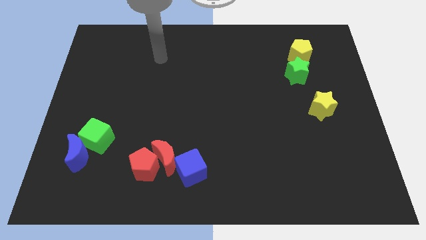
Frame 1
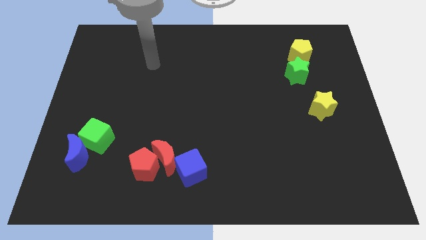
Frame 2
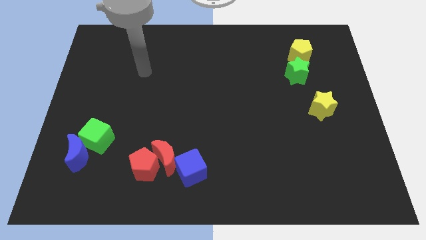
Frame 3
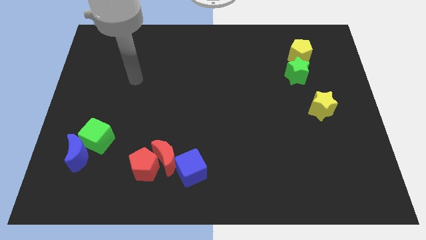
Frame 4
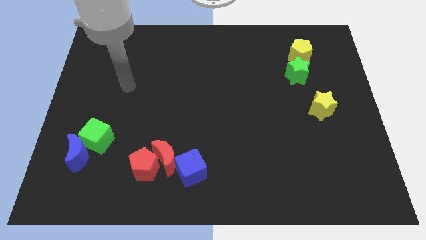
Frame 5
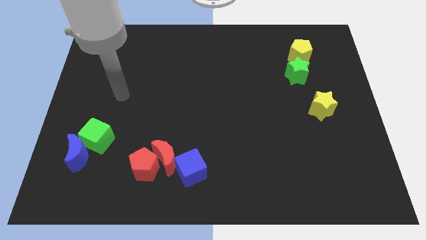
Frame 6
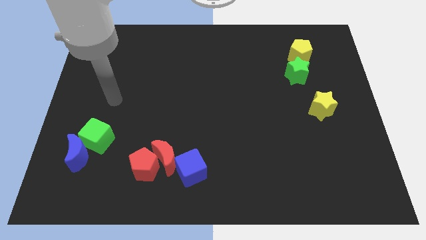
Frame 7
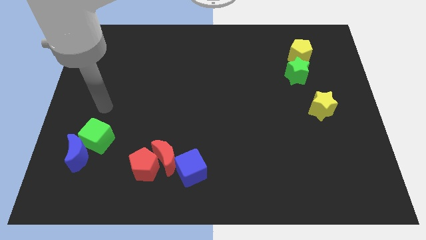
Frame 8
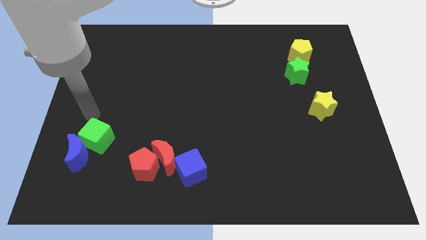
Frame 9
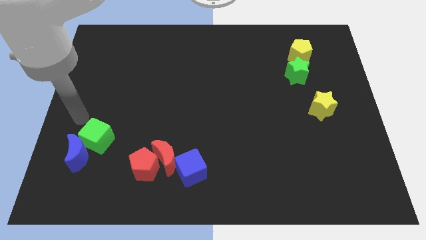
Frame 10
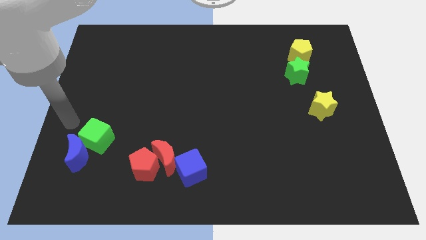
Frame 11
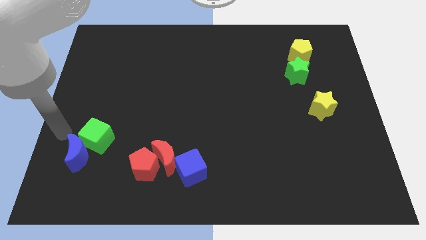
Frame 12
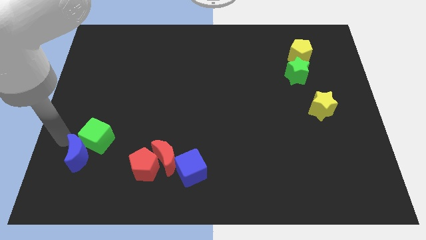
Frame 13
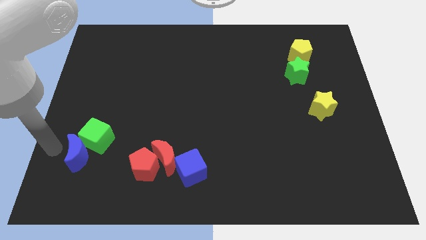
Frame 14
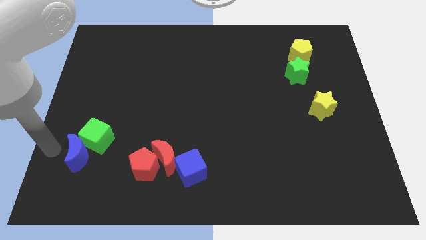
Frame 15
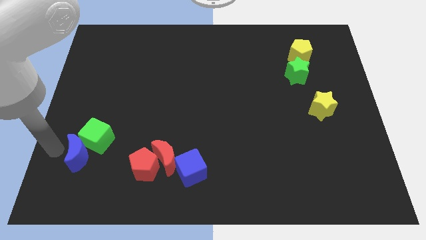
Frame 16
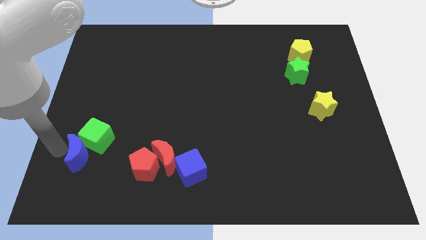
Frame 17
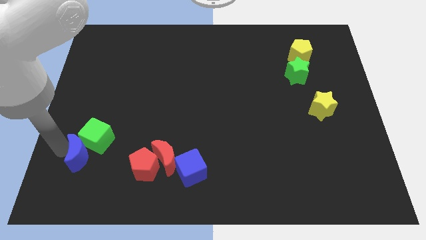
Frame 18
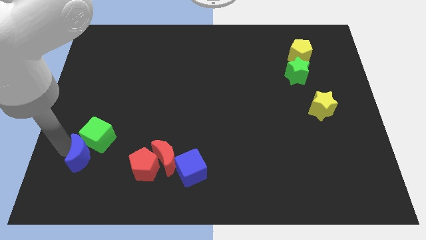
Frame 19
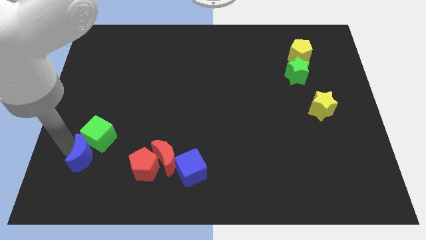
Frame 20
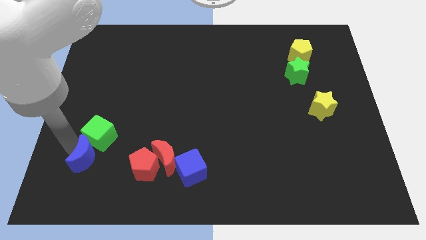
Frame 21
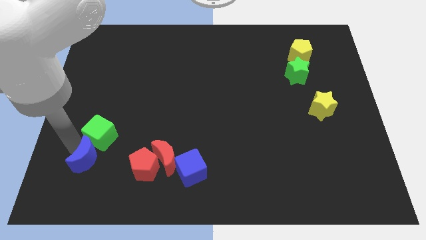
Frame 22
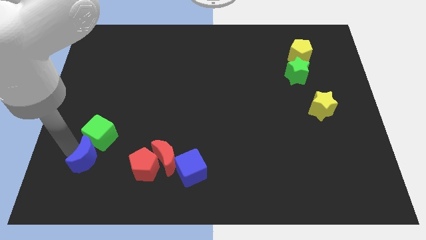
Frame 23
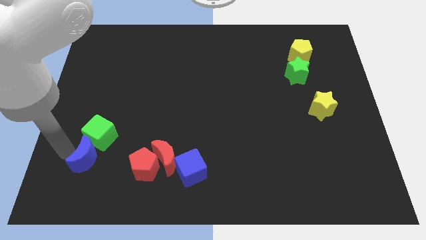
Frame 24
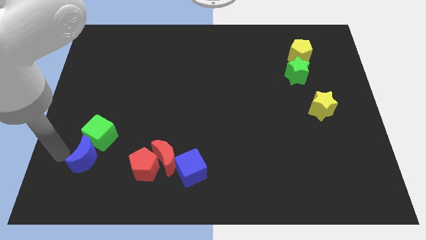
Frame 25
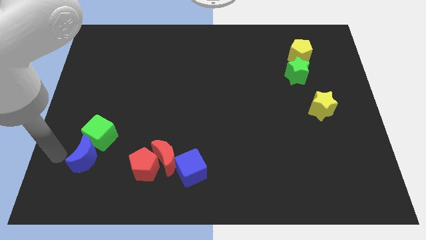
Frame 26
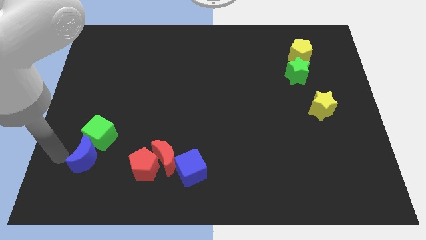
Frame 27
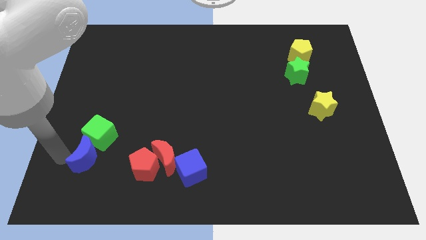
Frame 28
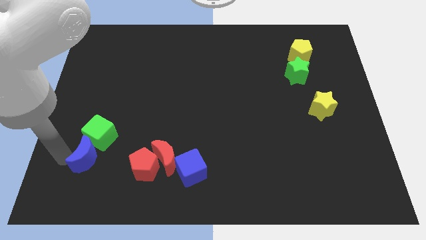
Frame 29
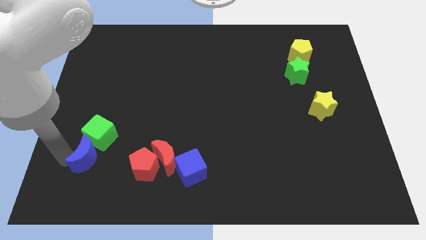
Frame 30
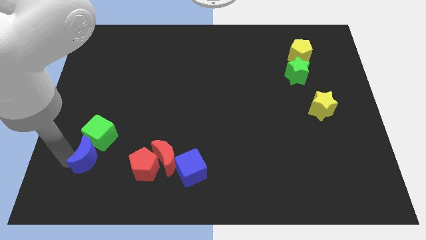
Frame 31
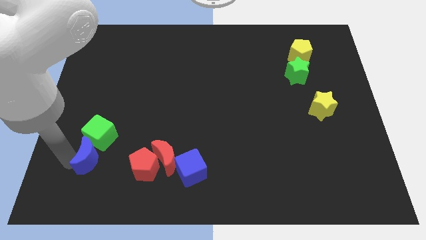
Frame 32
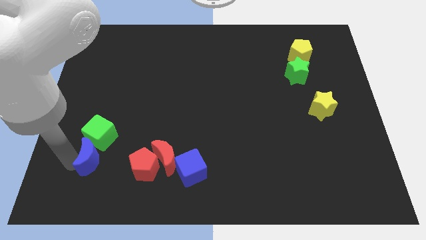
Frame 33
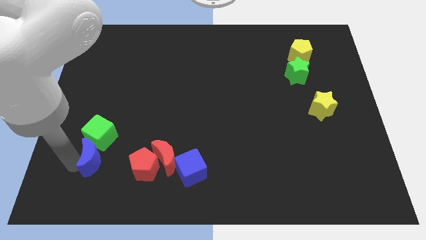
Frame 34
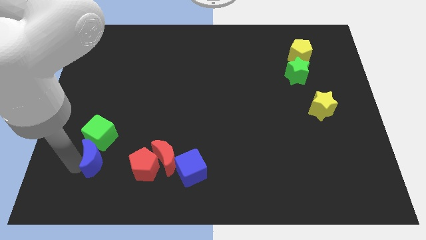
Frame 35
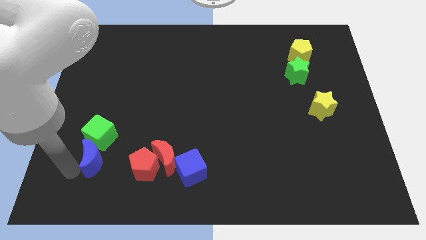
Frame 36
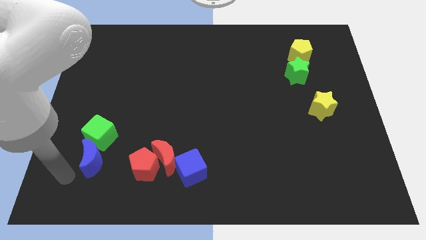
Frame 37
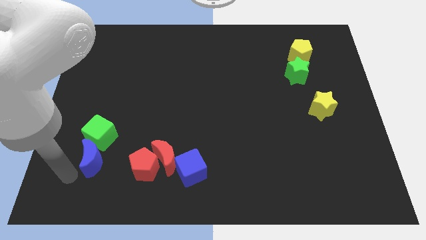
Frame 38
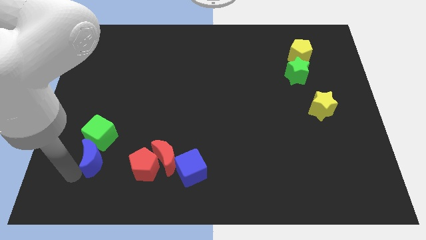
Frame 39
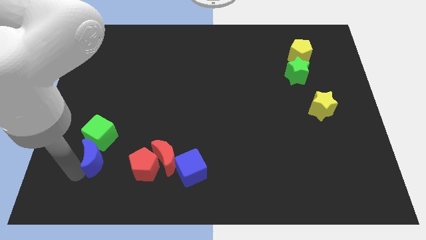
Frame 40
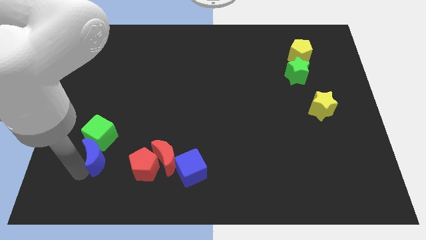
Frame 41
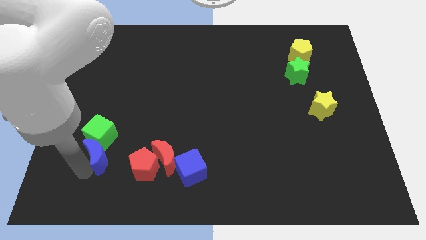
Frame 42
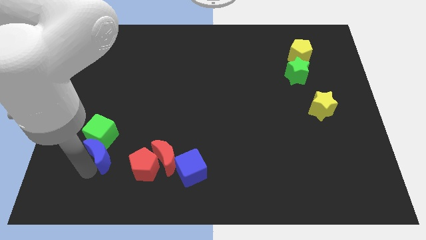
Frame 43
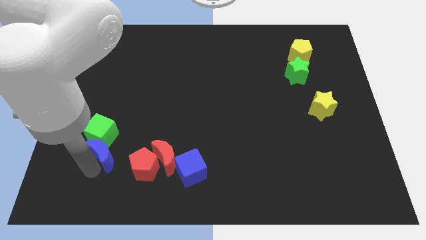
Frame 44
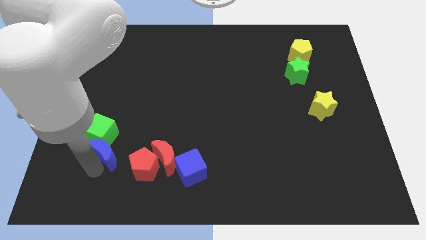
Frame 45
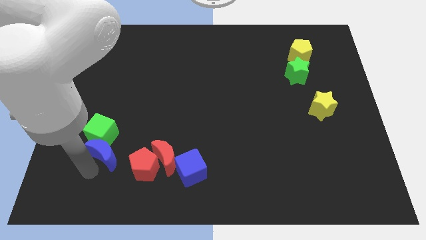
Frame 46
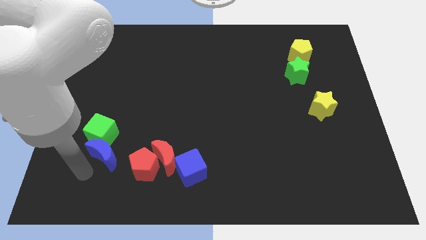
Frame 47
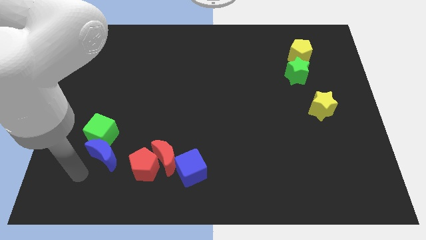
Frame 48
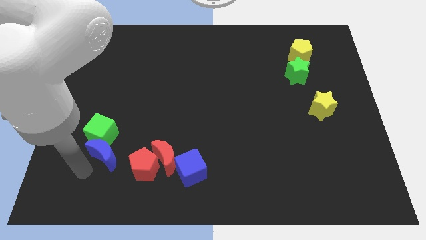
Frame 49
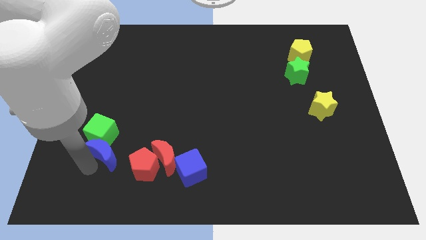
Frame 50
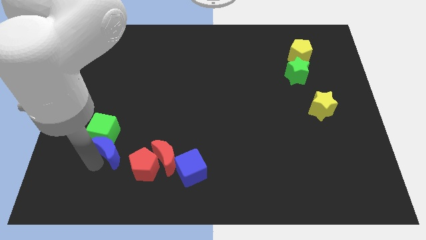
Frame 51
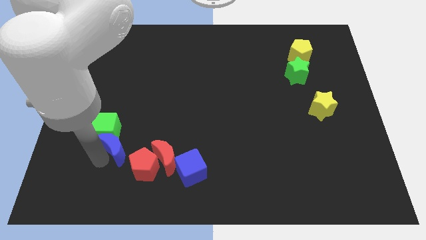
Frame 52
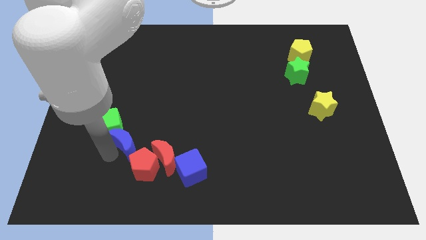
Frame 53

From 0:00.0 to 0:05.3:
move the blue moon to the top side of the red pentagon

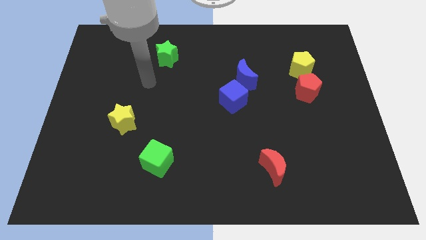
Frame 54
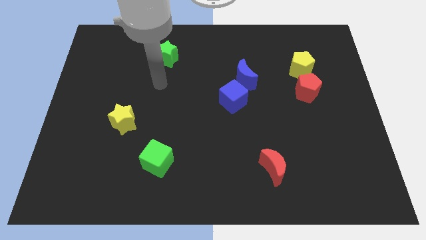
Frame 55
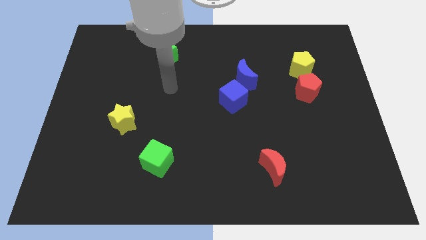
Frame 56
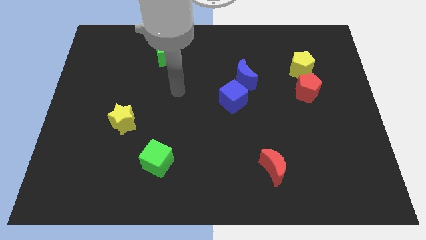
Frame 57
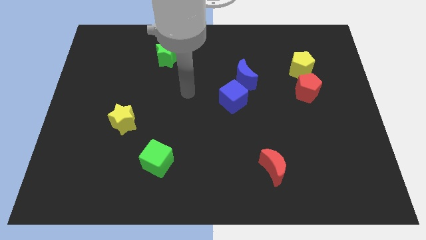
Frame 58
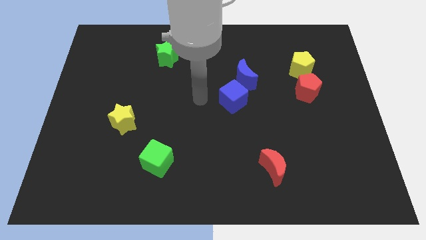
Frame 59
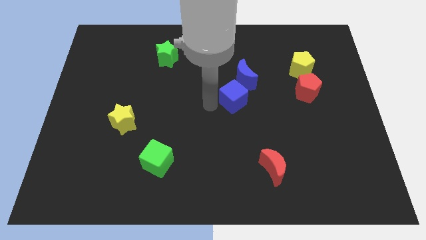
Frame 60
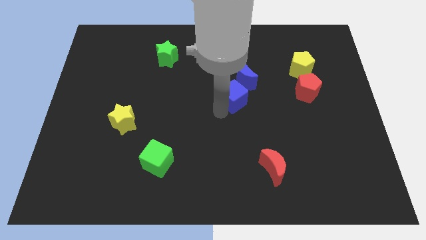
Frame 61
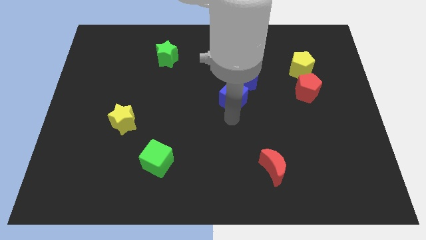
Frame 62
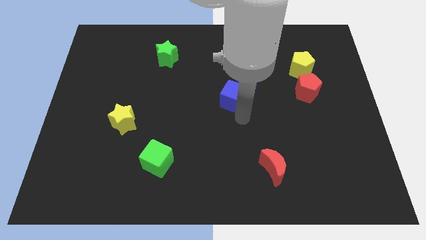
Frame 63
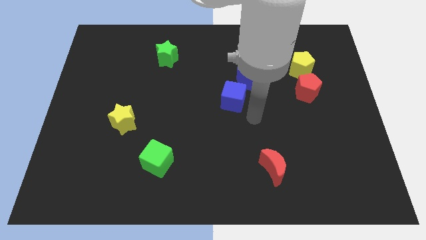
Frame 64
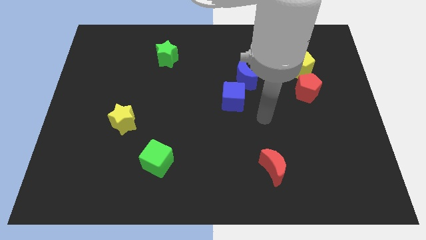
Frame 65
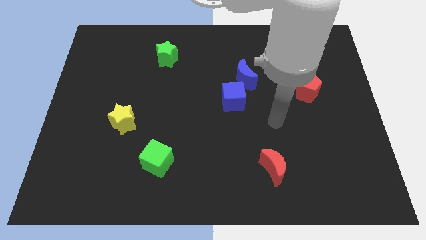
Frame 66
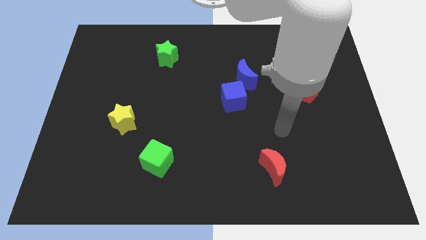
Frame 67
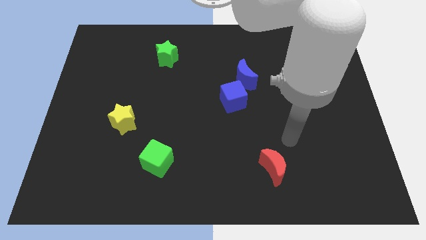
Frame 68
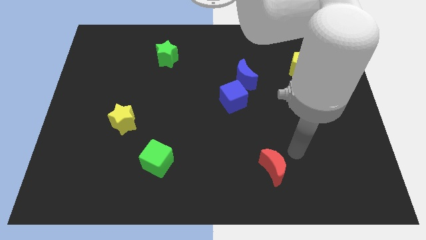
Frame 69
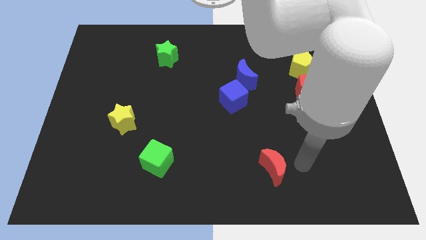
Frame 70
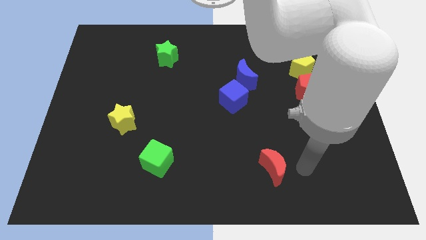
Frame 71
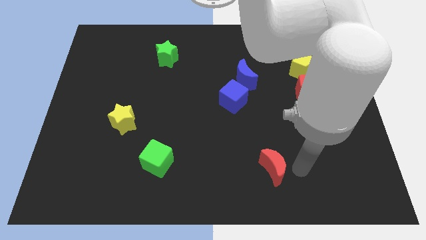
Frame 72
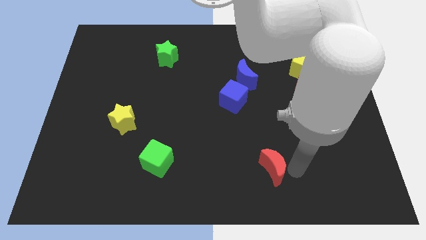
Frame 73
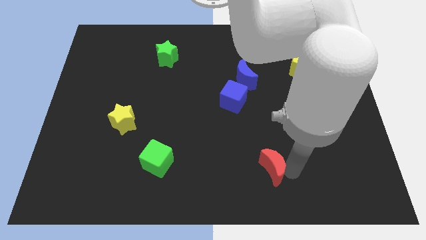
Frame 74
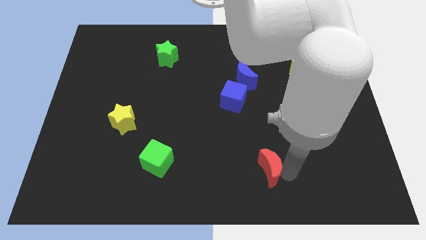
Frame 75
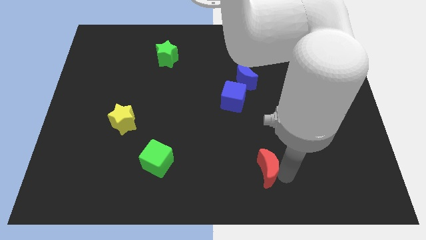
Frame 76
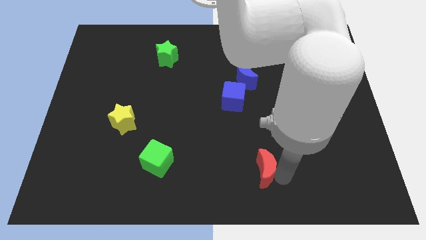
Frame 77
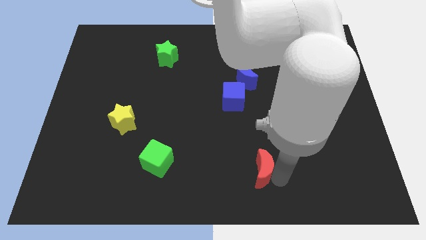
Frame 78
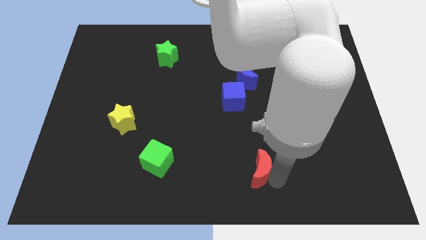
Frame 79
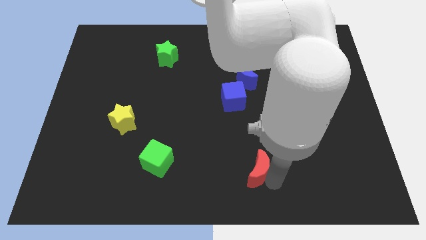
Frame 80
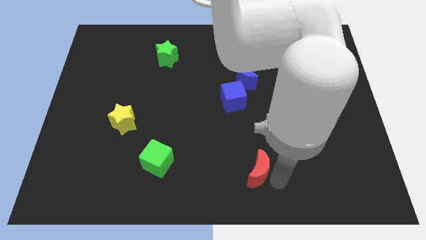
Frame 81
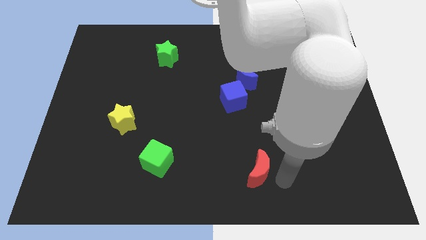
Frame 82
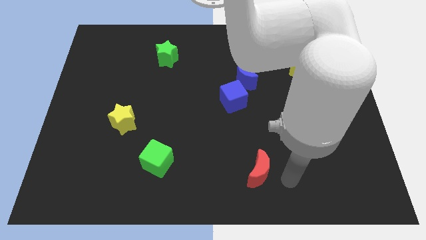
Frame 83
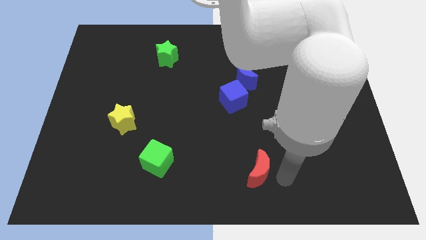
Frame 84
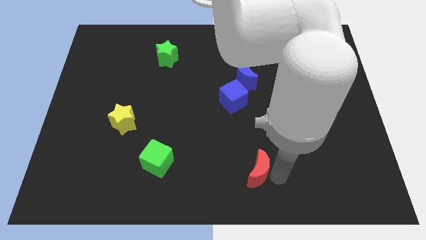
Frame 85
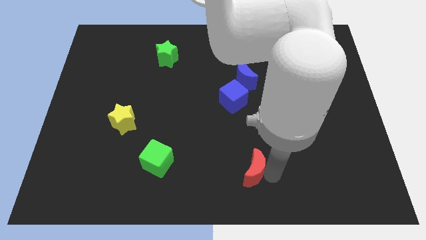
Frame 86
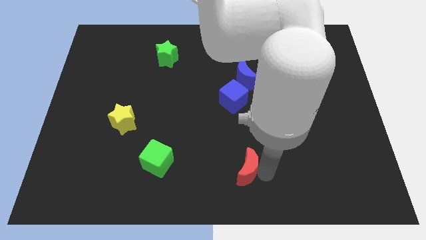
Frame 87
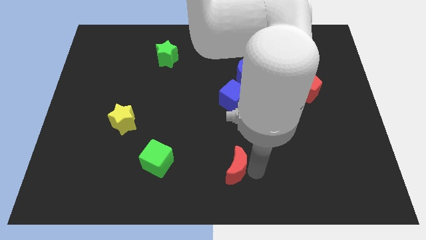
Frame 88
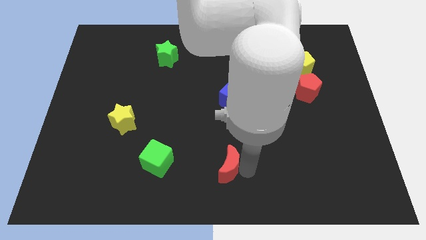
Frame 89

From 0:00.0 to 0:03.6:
slide the red moon to the right of the green cube
